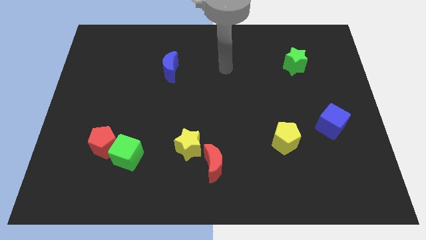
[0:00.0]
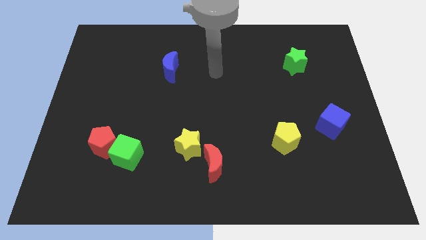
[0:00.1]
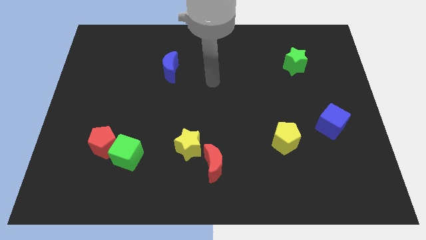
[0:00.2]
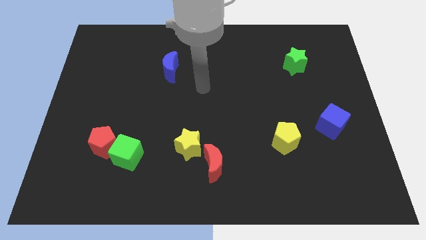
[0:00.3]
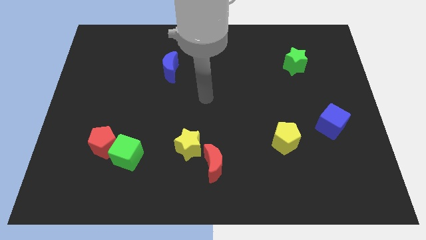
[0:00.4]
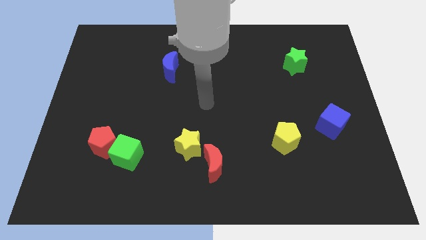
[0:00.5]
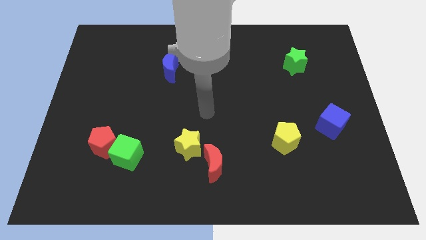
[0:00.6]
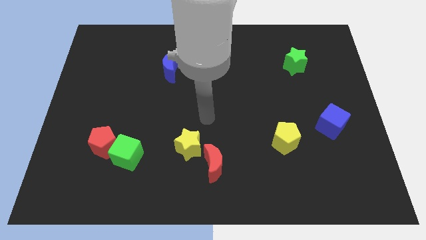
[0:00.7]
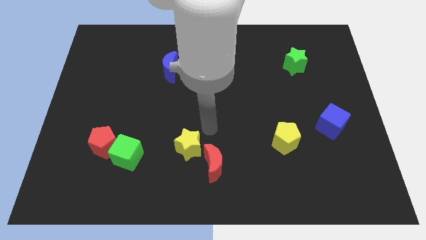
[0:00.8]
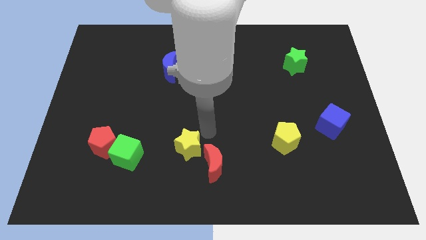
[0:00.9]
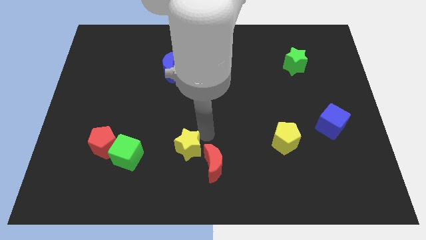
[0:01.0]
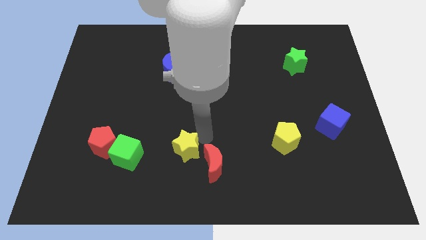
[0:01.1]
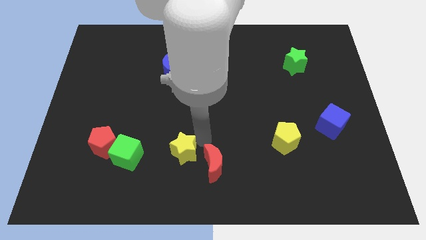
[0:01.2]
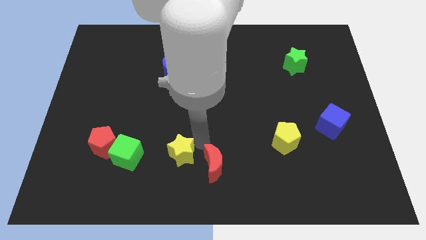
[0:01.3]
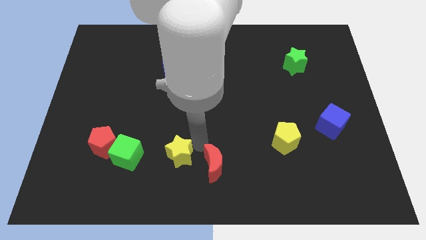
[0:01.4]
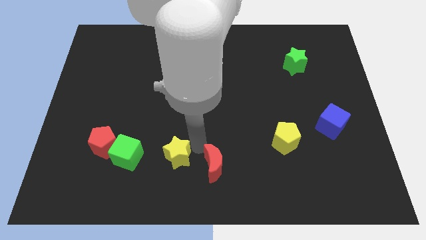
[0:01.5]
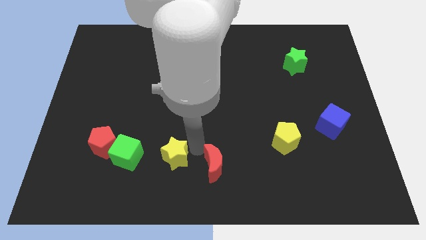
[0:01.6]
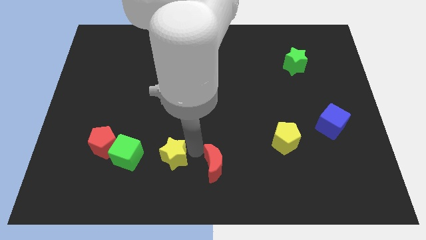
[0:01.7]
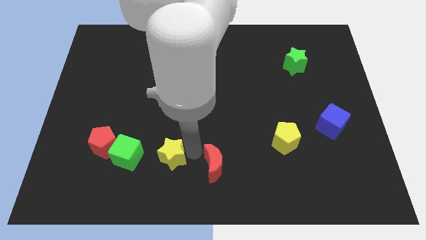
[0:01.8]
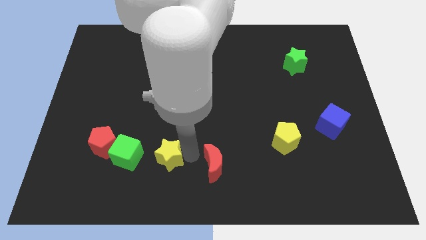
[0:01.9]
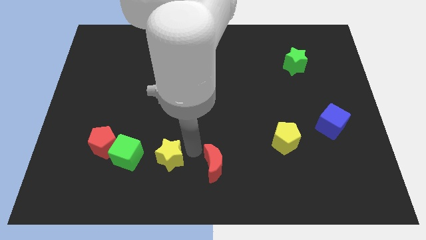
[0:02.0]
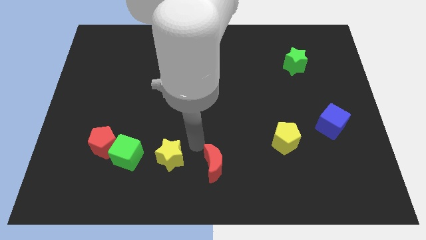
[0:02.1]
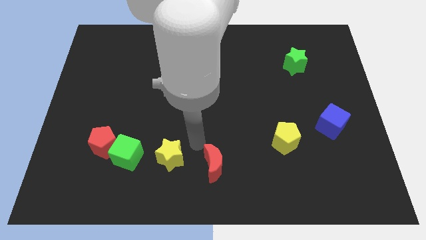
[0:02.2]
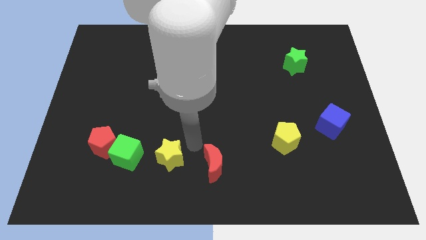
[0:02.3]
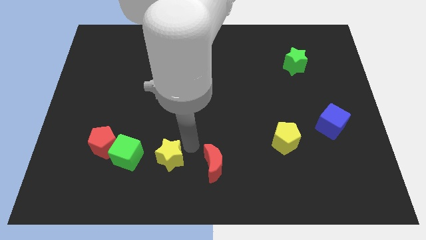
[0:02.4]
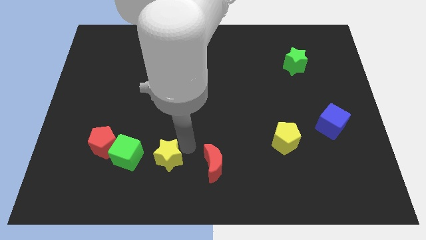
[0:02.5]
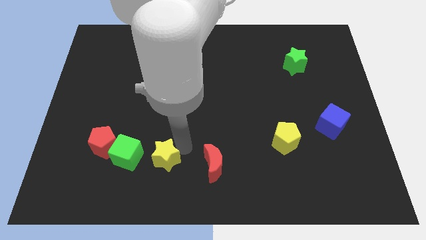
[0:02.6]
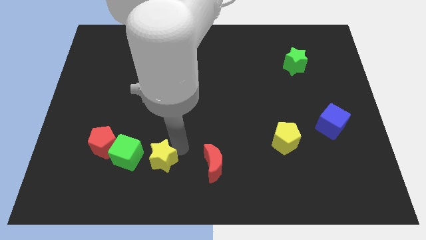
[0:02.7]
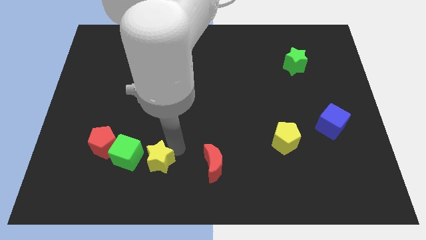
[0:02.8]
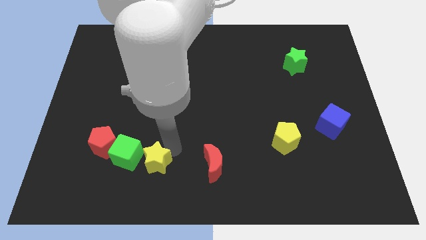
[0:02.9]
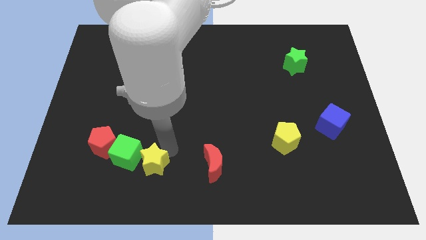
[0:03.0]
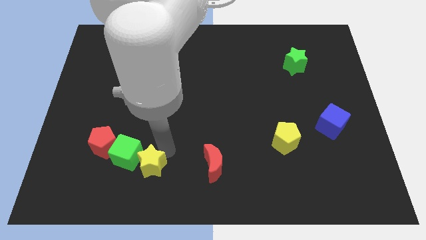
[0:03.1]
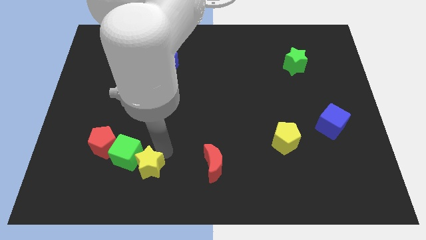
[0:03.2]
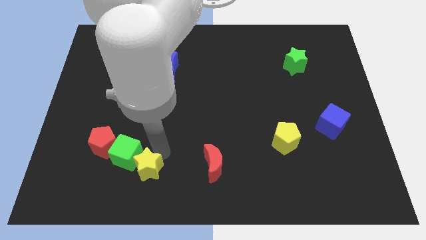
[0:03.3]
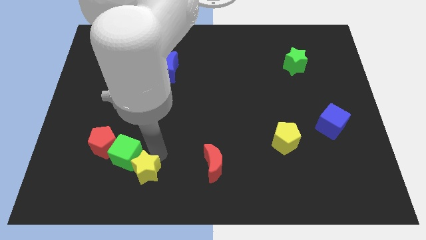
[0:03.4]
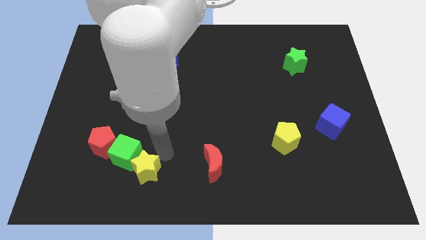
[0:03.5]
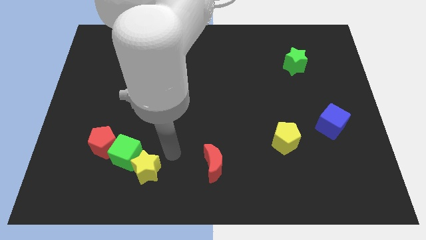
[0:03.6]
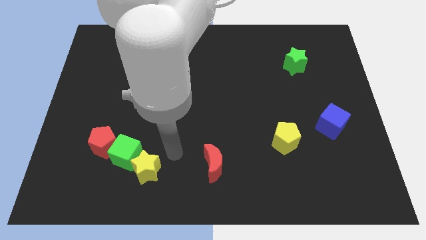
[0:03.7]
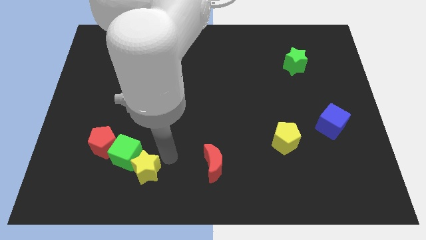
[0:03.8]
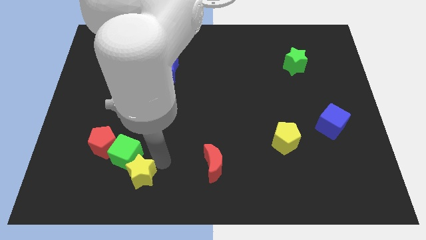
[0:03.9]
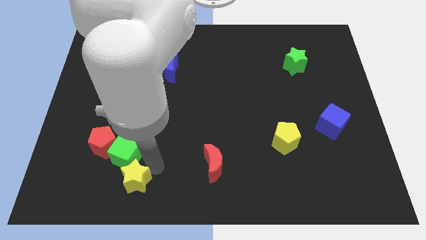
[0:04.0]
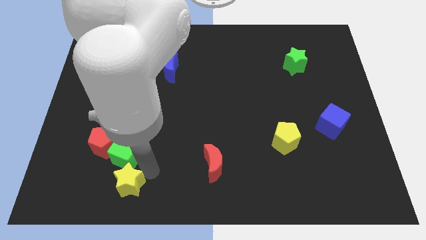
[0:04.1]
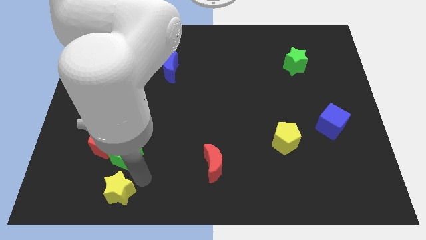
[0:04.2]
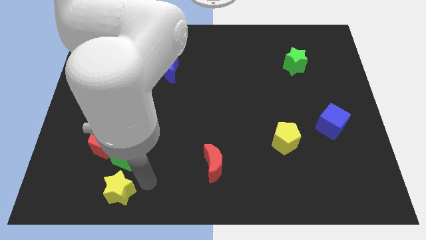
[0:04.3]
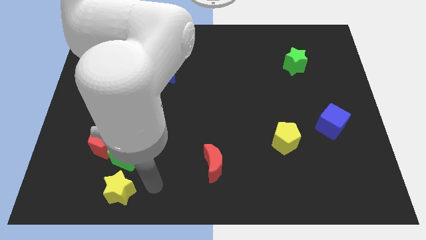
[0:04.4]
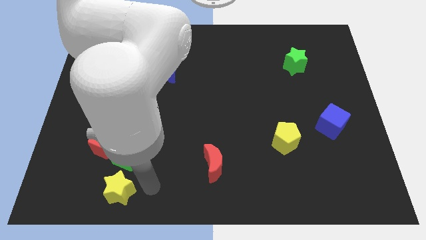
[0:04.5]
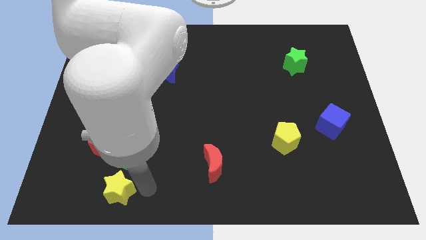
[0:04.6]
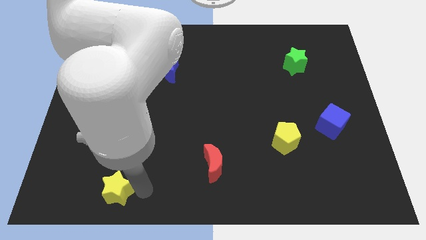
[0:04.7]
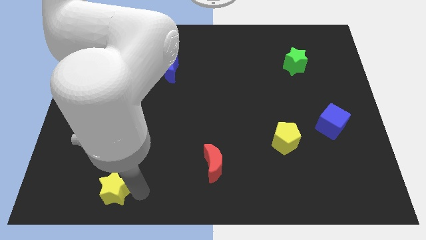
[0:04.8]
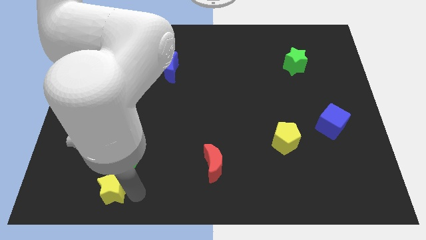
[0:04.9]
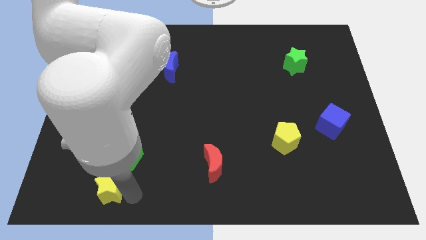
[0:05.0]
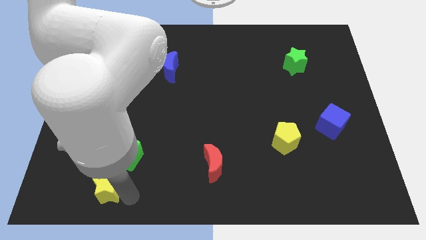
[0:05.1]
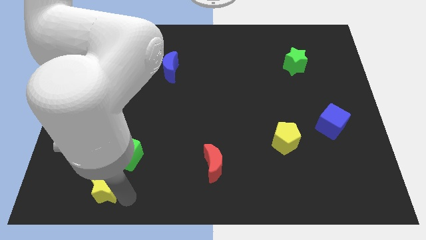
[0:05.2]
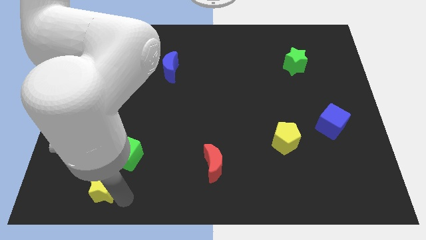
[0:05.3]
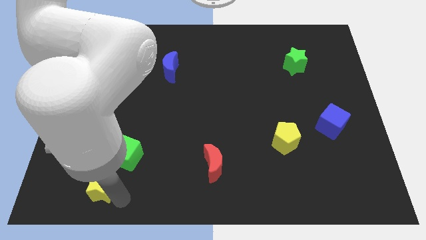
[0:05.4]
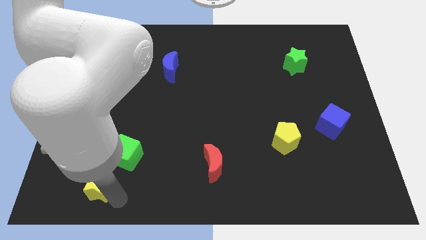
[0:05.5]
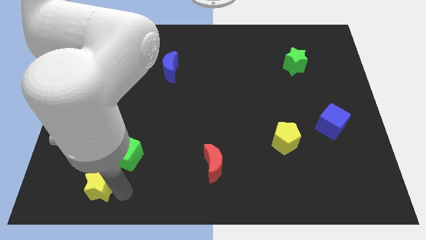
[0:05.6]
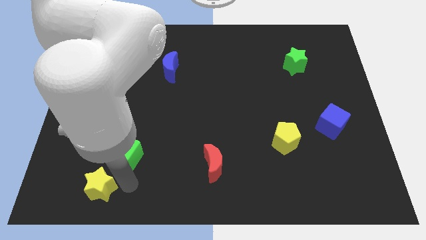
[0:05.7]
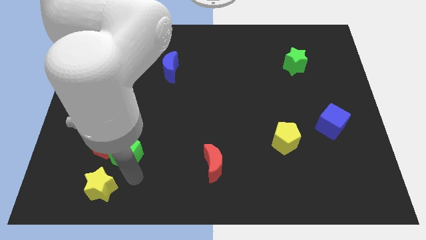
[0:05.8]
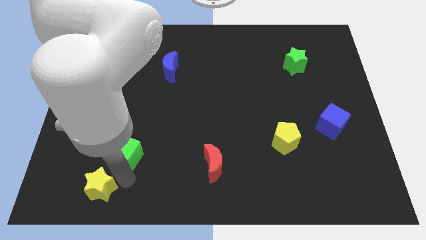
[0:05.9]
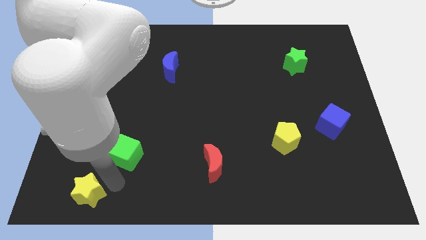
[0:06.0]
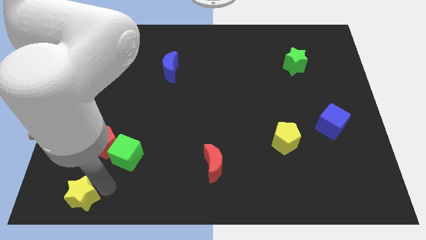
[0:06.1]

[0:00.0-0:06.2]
move the yellow star to the lower left corner

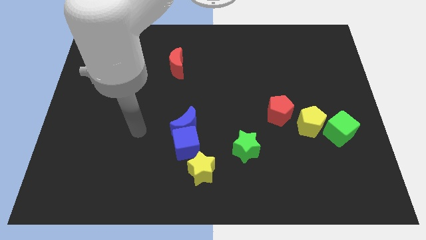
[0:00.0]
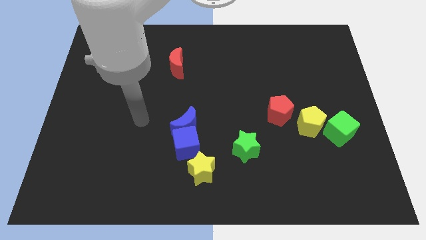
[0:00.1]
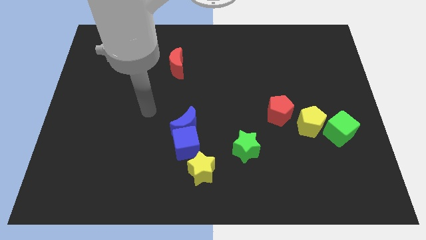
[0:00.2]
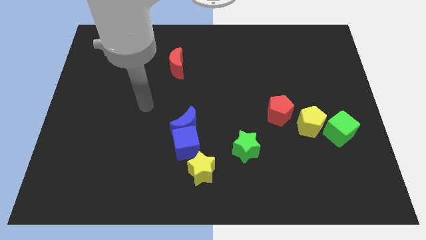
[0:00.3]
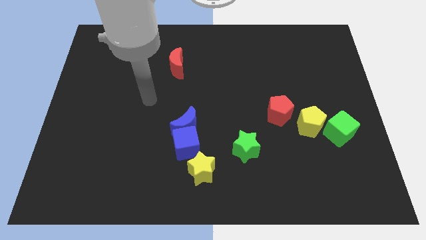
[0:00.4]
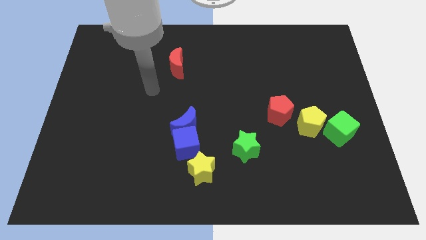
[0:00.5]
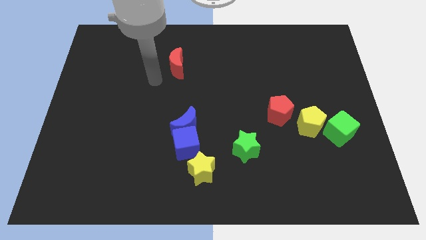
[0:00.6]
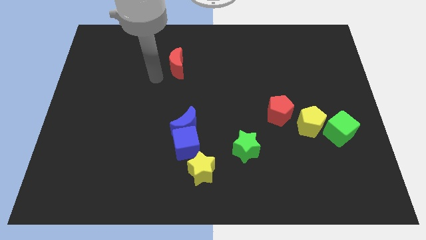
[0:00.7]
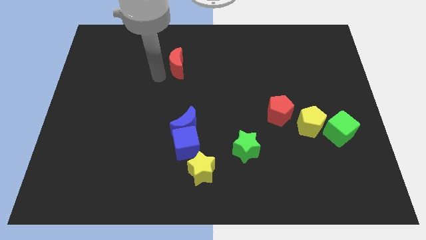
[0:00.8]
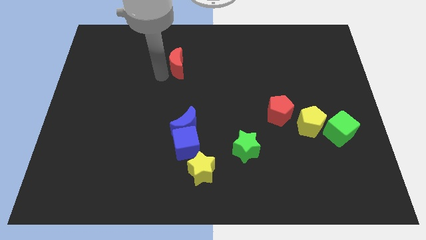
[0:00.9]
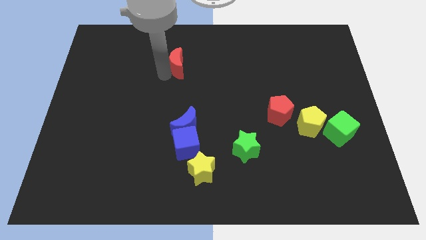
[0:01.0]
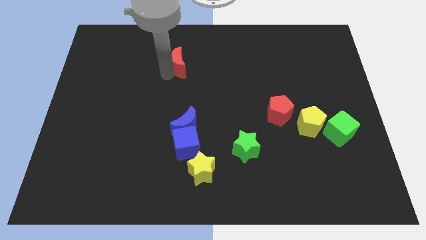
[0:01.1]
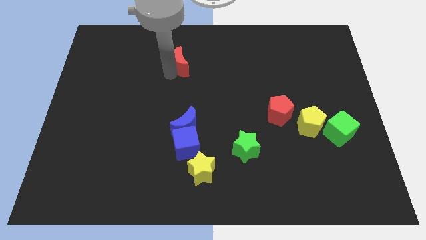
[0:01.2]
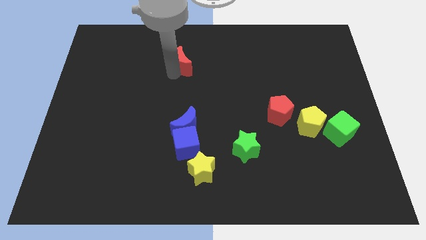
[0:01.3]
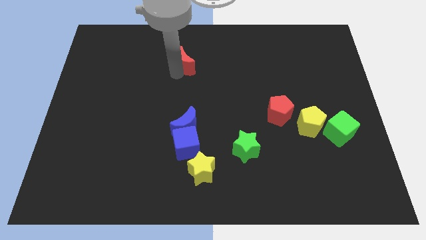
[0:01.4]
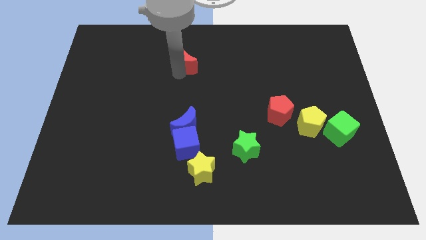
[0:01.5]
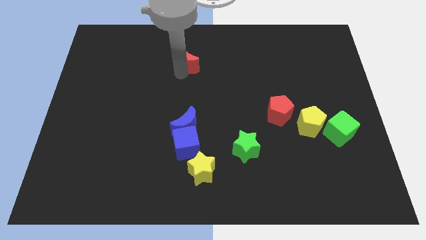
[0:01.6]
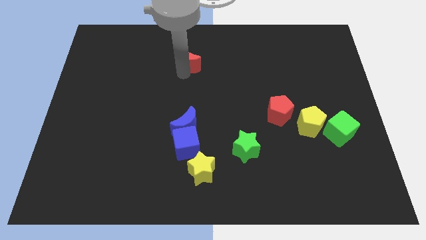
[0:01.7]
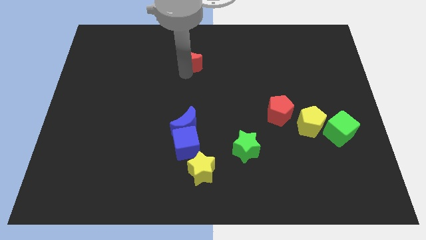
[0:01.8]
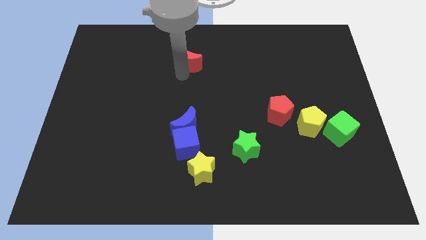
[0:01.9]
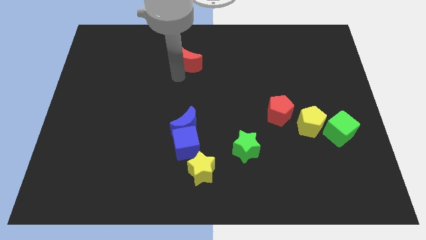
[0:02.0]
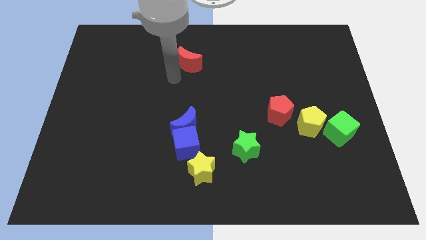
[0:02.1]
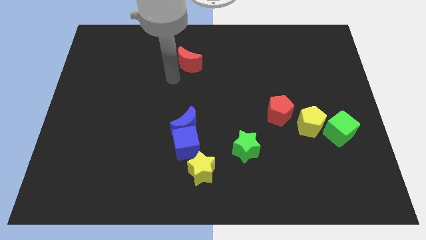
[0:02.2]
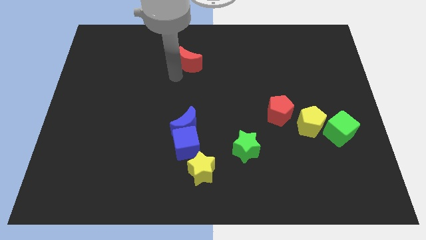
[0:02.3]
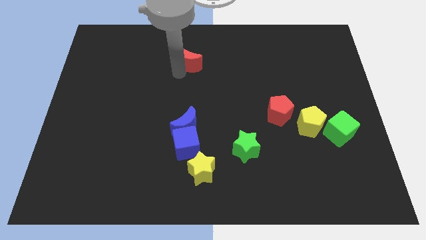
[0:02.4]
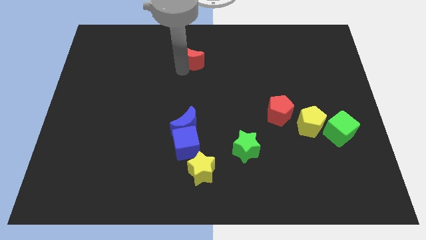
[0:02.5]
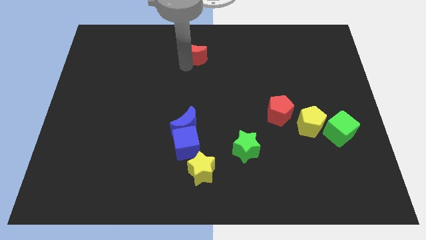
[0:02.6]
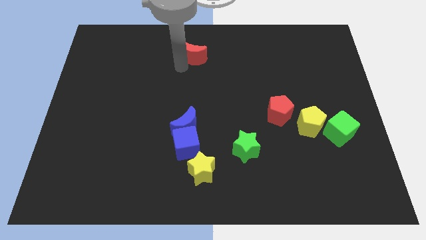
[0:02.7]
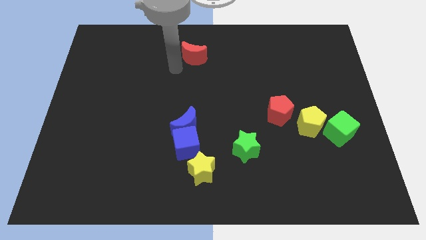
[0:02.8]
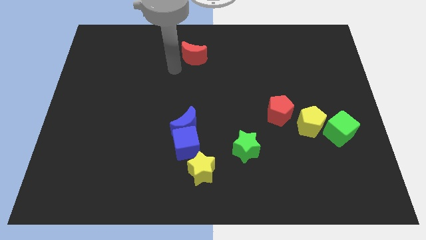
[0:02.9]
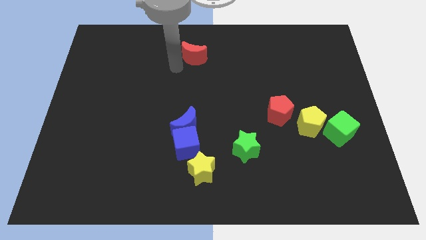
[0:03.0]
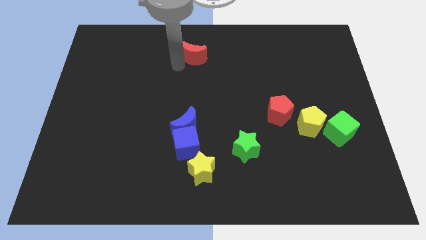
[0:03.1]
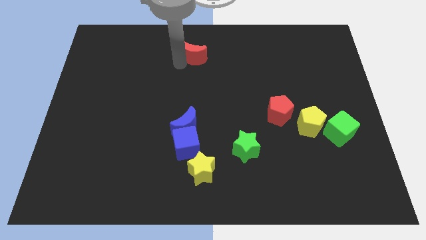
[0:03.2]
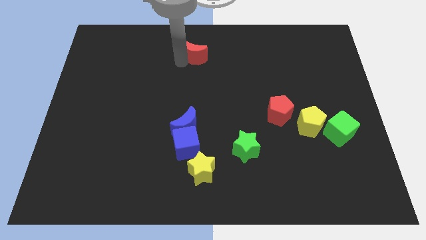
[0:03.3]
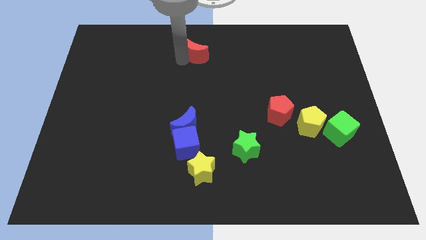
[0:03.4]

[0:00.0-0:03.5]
slide the red moon to the towards your base
